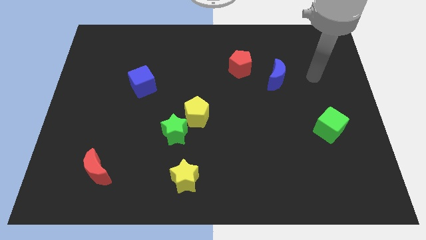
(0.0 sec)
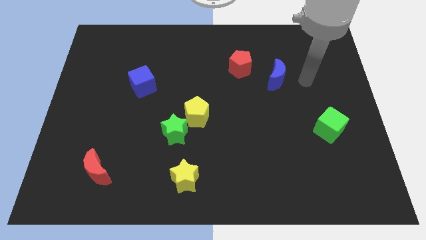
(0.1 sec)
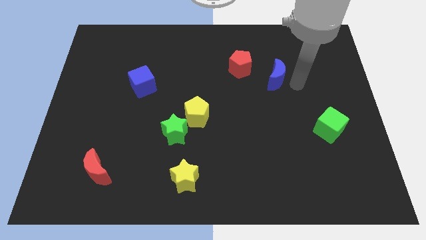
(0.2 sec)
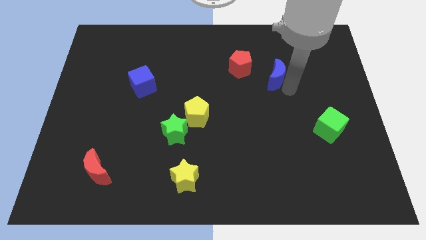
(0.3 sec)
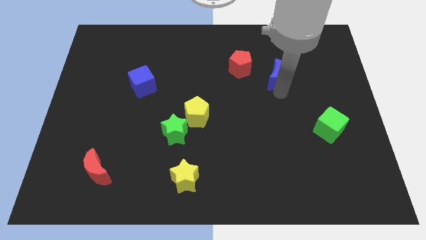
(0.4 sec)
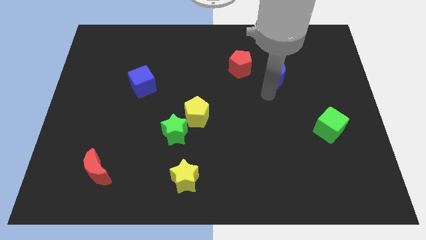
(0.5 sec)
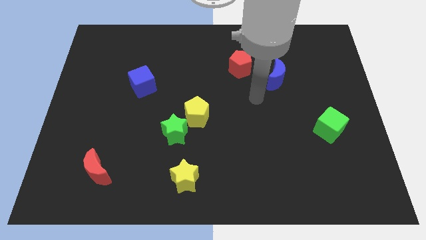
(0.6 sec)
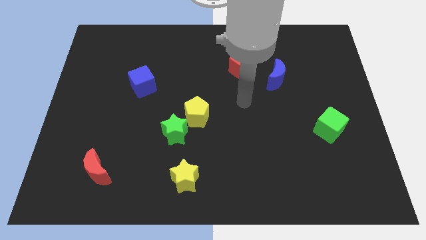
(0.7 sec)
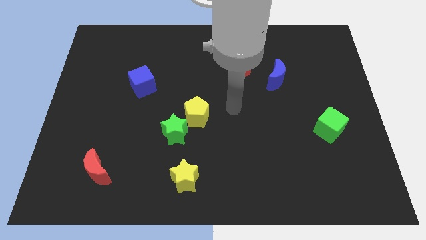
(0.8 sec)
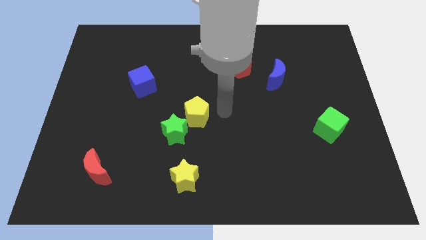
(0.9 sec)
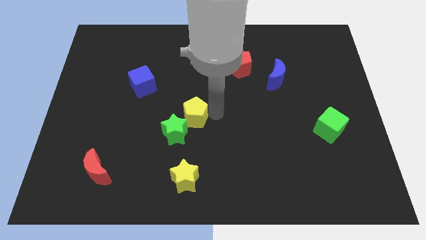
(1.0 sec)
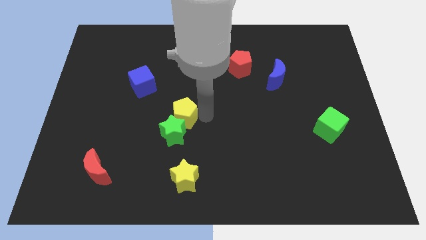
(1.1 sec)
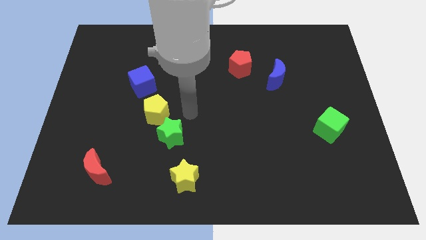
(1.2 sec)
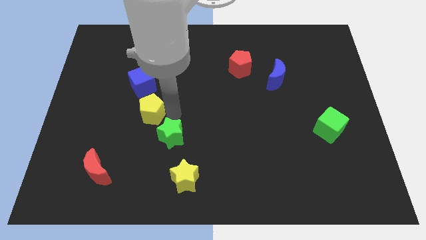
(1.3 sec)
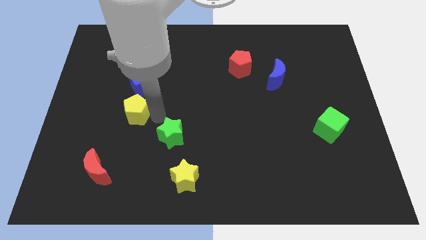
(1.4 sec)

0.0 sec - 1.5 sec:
pull the green star apart from the yellow pentagon

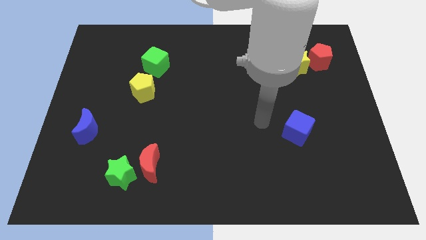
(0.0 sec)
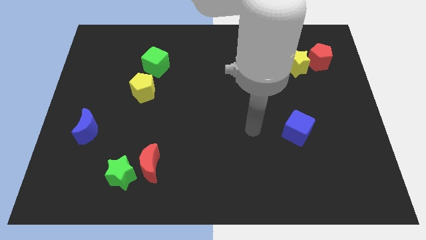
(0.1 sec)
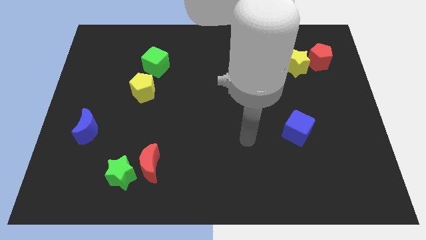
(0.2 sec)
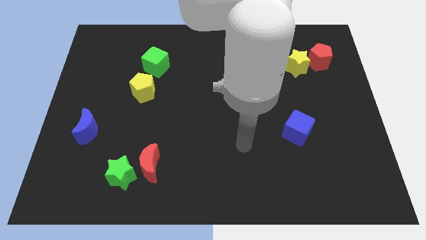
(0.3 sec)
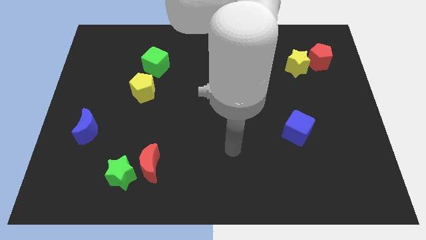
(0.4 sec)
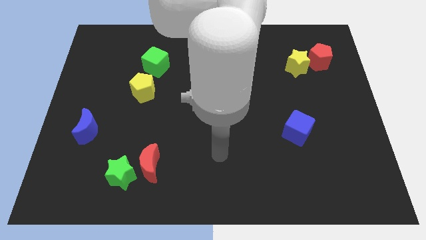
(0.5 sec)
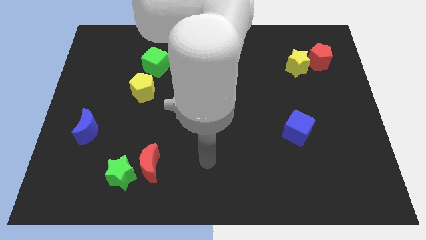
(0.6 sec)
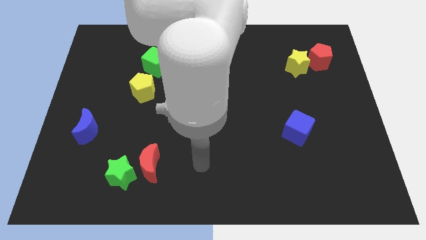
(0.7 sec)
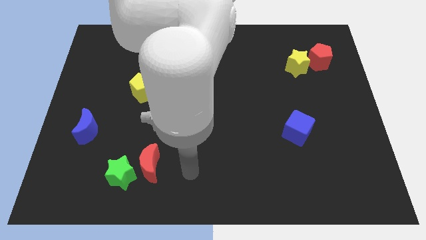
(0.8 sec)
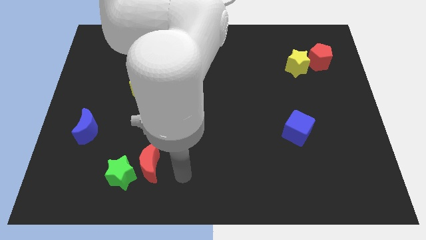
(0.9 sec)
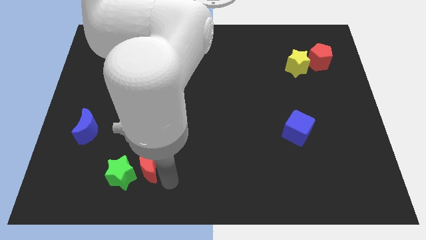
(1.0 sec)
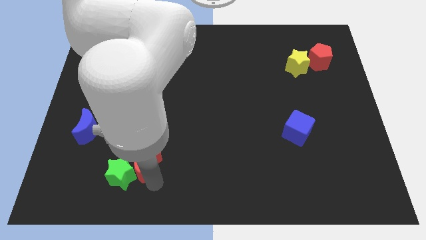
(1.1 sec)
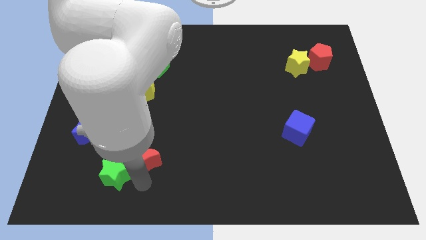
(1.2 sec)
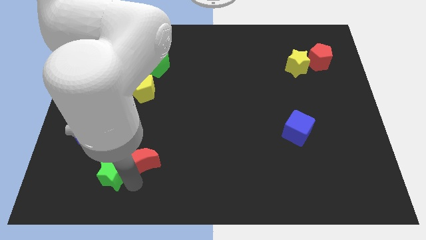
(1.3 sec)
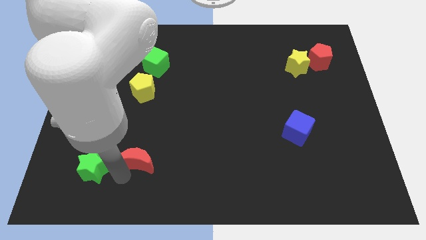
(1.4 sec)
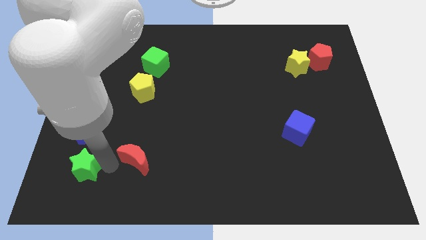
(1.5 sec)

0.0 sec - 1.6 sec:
move the red moon away from the green star

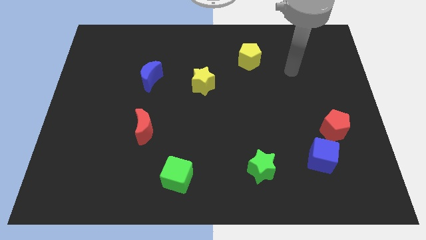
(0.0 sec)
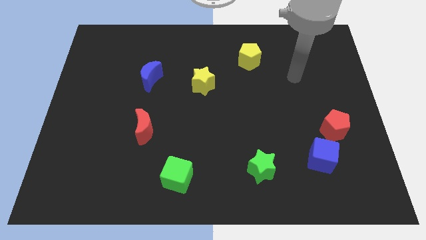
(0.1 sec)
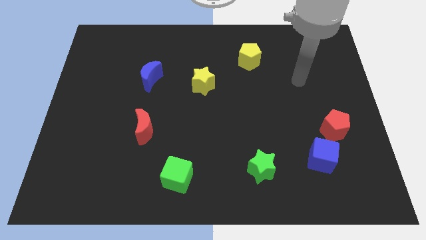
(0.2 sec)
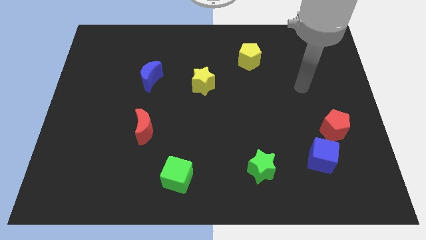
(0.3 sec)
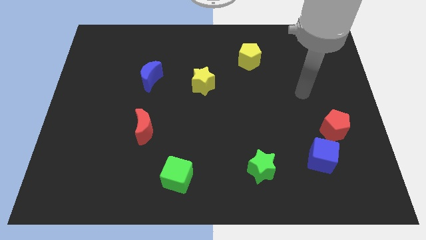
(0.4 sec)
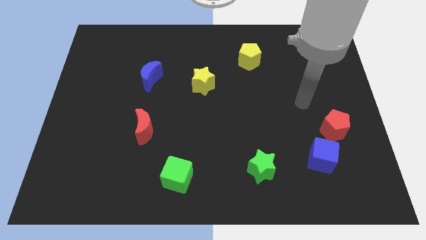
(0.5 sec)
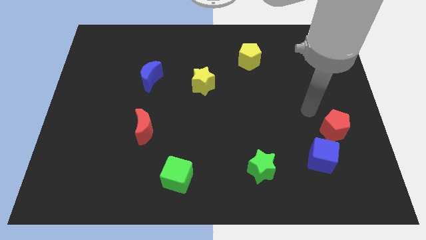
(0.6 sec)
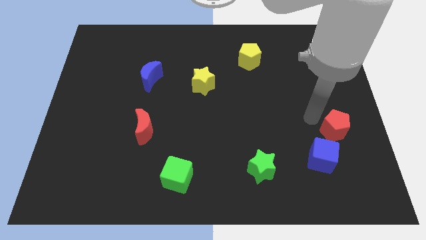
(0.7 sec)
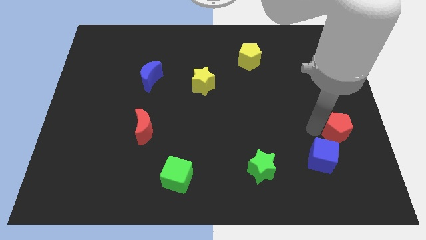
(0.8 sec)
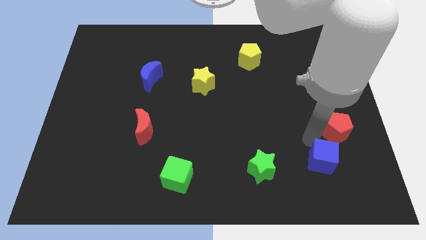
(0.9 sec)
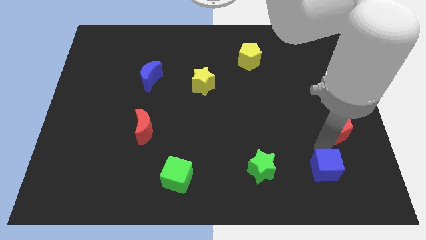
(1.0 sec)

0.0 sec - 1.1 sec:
move the red pentagon away from the blue cube

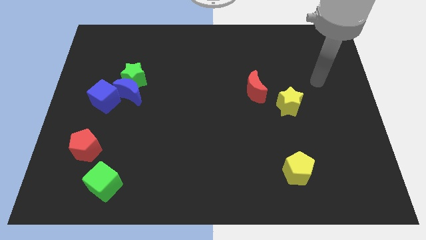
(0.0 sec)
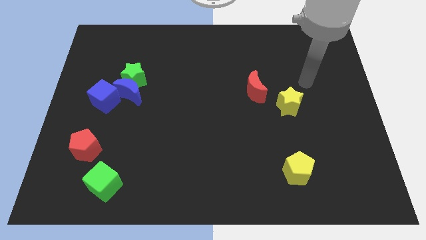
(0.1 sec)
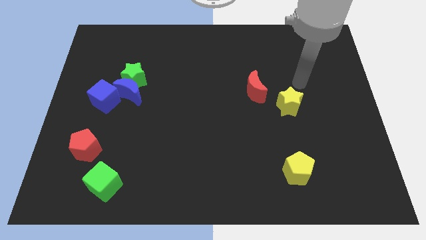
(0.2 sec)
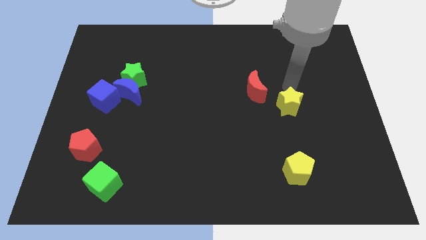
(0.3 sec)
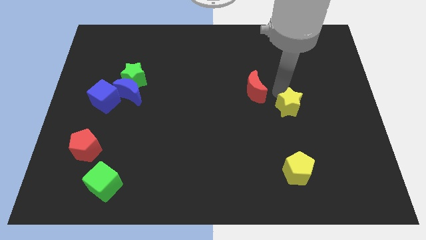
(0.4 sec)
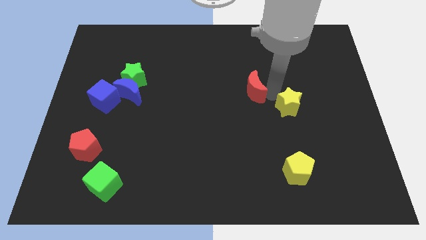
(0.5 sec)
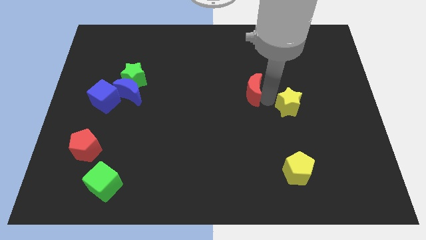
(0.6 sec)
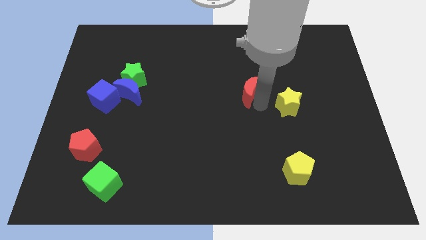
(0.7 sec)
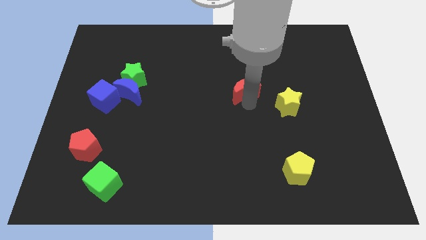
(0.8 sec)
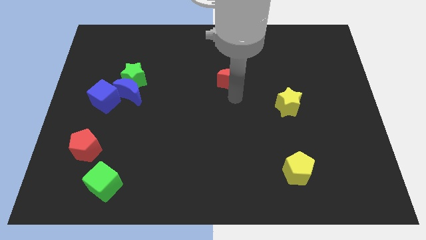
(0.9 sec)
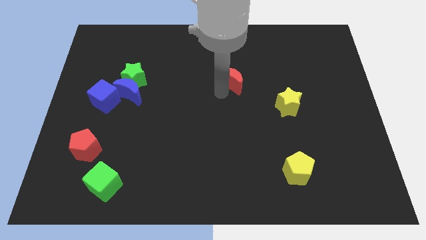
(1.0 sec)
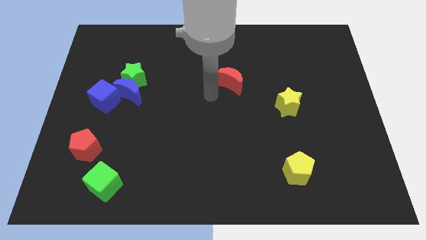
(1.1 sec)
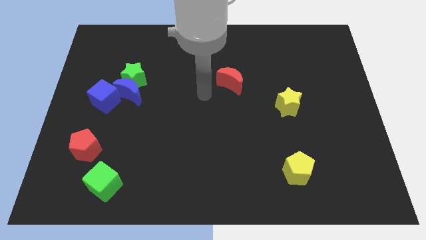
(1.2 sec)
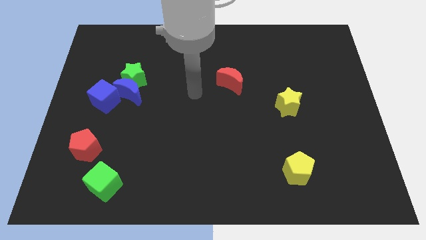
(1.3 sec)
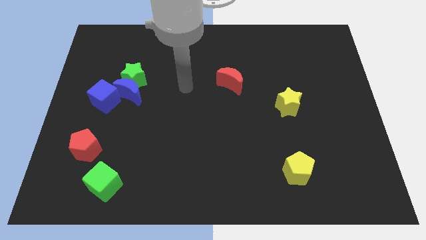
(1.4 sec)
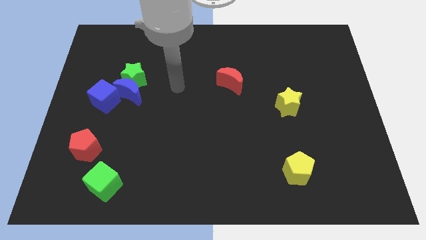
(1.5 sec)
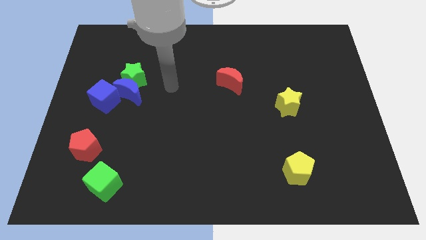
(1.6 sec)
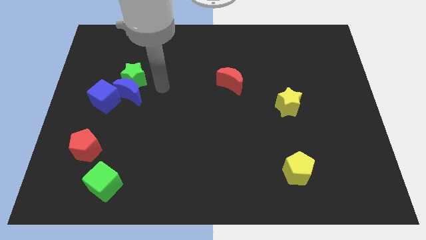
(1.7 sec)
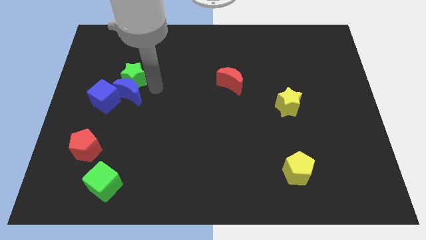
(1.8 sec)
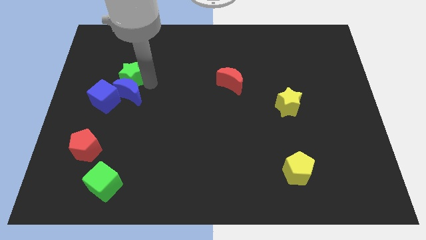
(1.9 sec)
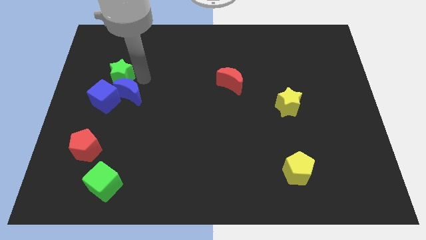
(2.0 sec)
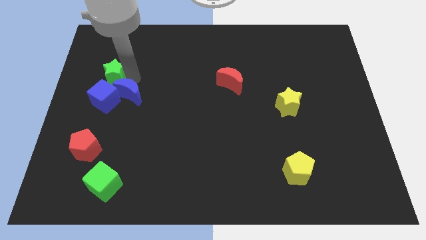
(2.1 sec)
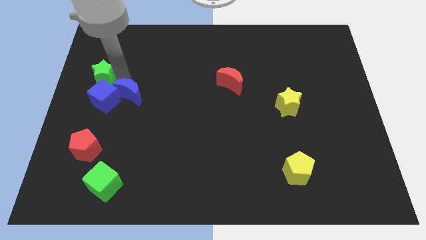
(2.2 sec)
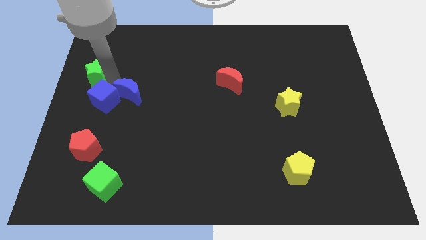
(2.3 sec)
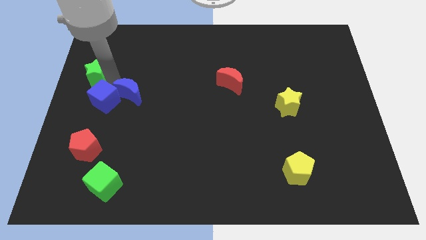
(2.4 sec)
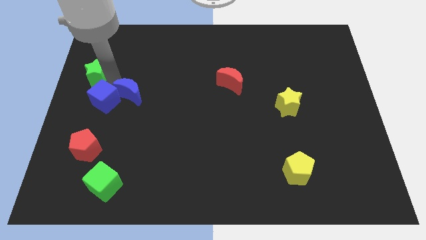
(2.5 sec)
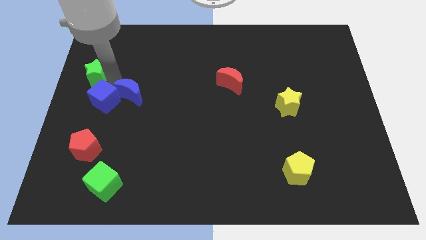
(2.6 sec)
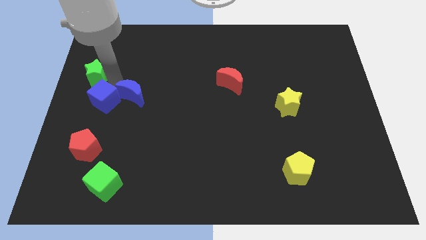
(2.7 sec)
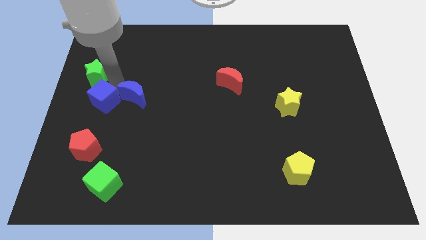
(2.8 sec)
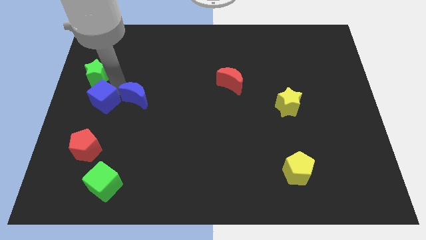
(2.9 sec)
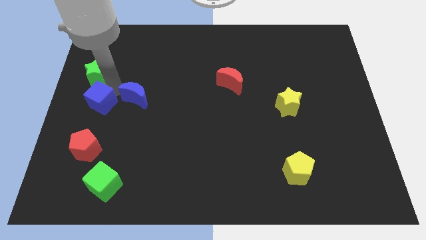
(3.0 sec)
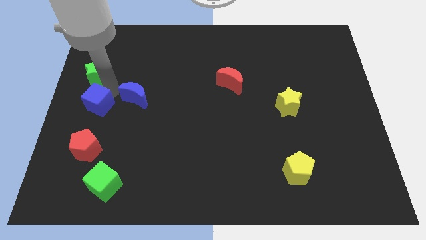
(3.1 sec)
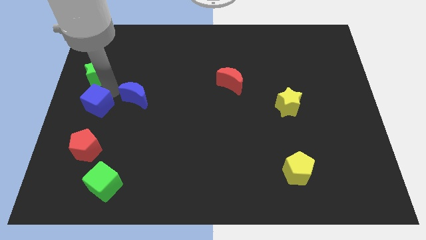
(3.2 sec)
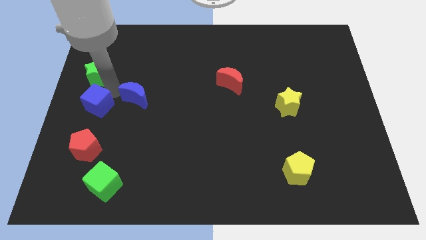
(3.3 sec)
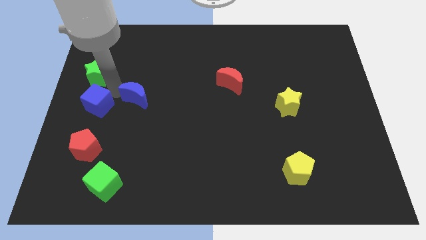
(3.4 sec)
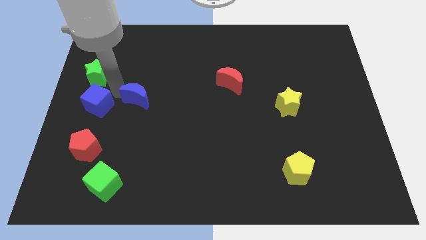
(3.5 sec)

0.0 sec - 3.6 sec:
move the blue moon away from the green star and blue cube

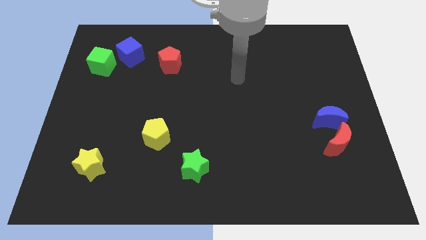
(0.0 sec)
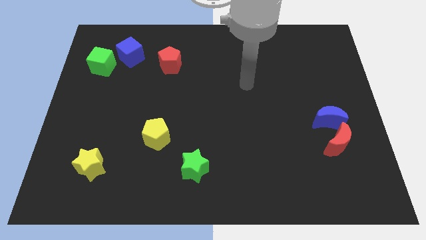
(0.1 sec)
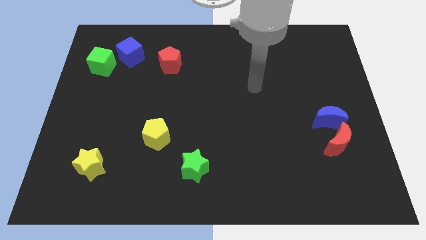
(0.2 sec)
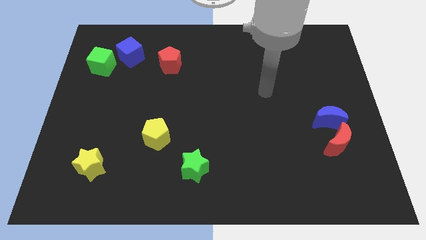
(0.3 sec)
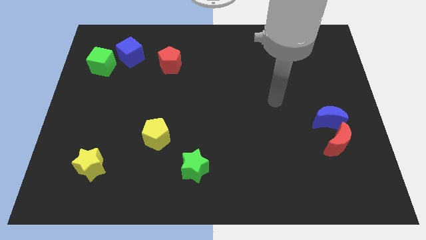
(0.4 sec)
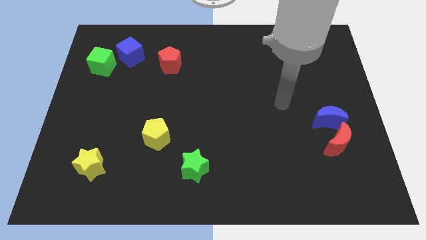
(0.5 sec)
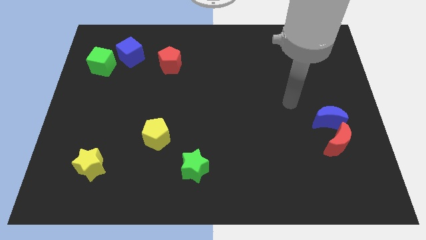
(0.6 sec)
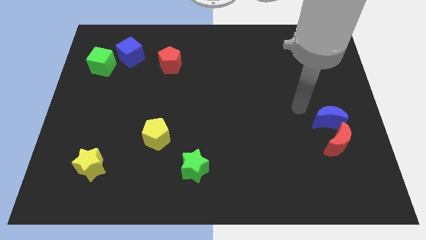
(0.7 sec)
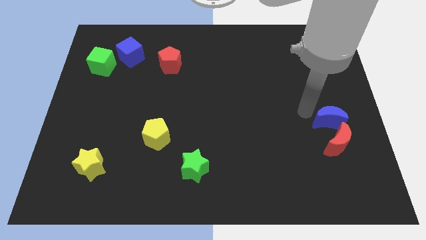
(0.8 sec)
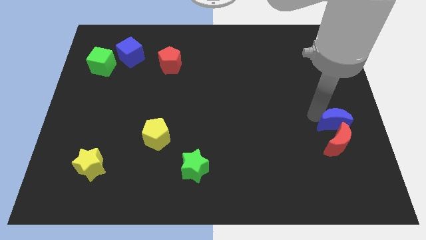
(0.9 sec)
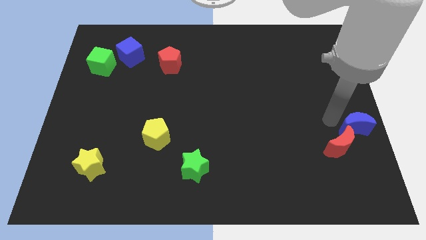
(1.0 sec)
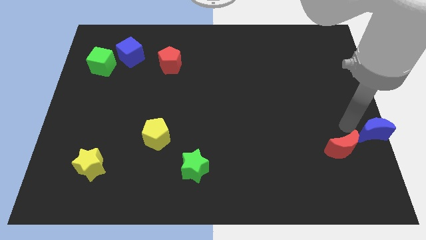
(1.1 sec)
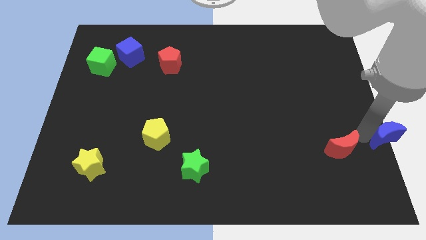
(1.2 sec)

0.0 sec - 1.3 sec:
pull the red moon apart from the blue moon

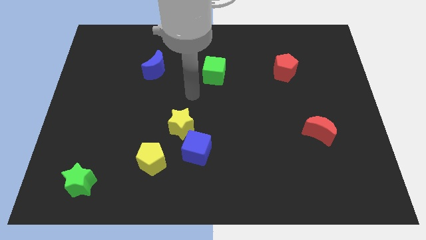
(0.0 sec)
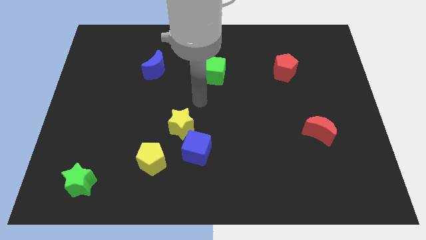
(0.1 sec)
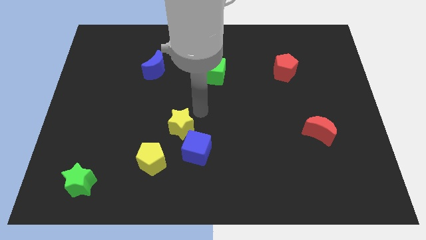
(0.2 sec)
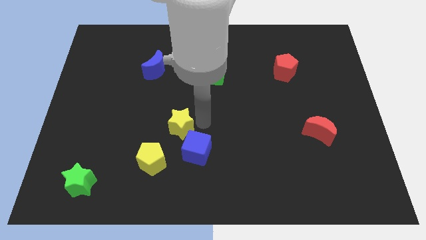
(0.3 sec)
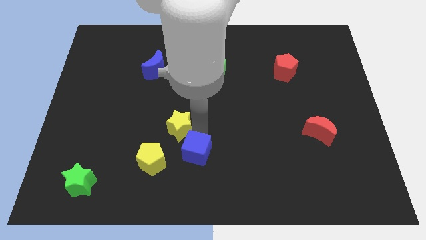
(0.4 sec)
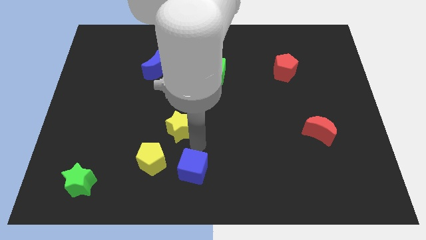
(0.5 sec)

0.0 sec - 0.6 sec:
move the yellow star away from the blue cube
